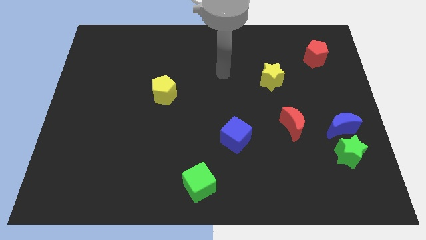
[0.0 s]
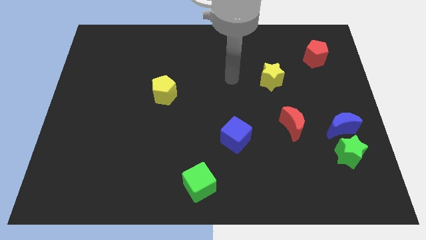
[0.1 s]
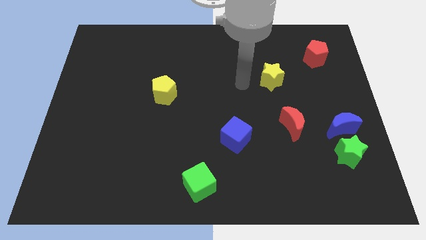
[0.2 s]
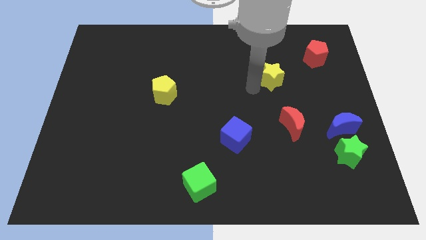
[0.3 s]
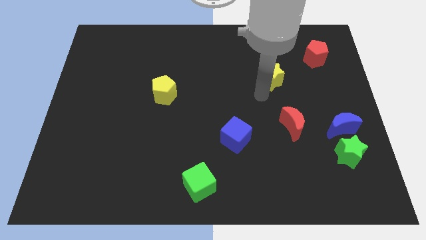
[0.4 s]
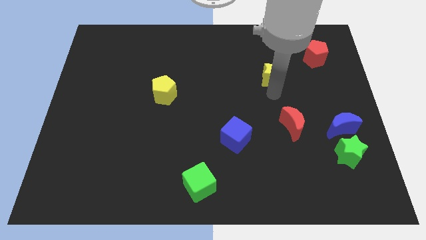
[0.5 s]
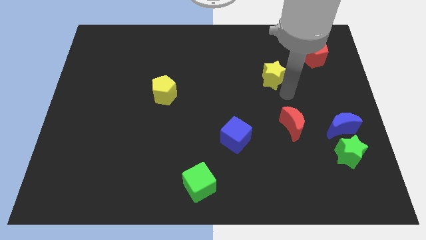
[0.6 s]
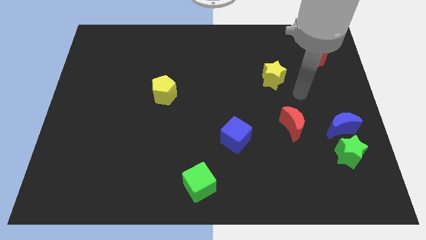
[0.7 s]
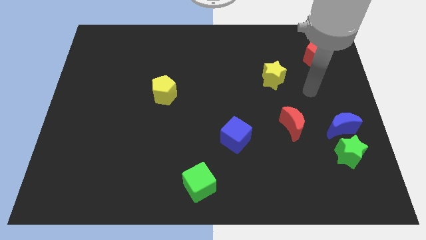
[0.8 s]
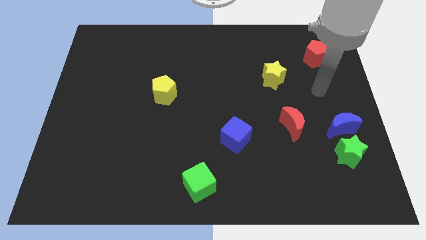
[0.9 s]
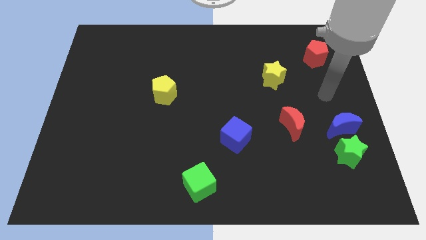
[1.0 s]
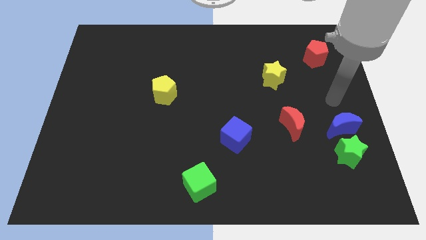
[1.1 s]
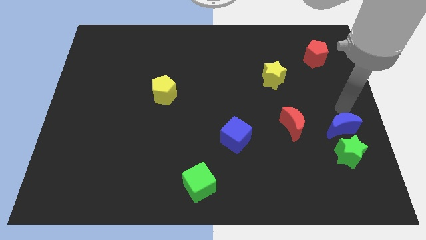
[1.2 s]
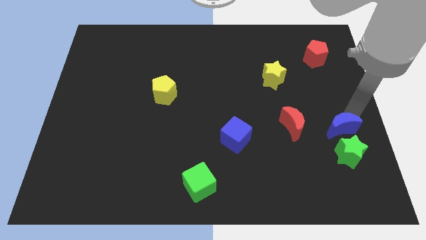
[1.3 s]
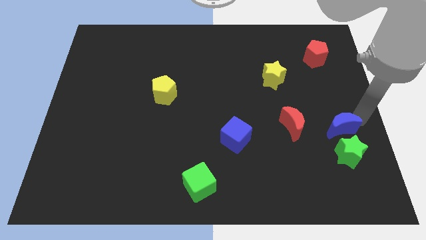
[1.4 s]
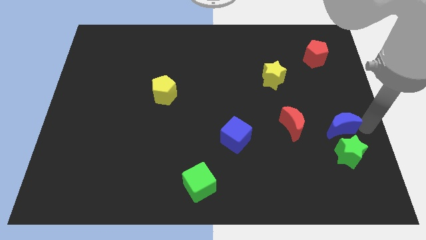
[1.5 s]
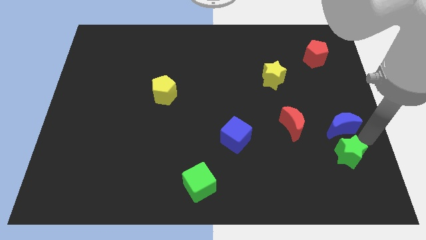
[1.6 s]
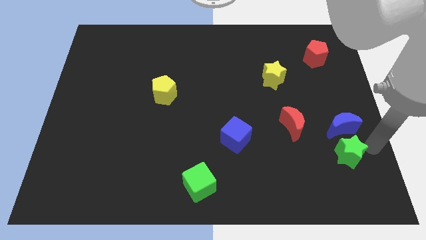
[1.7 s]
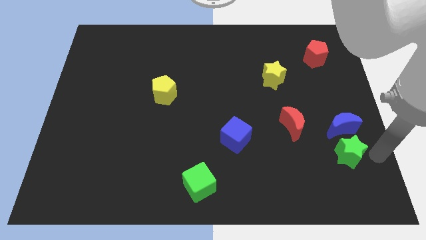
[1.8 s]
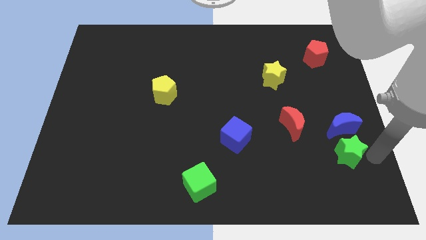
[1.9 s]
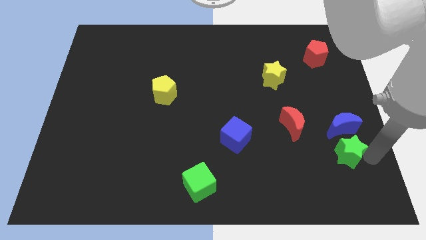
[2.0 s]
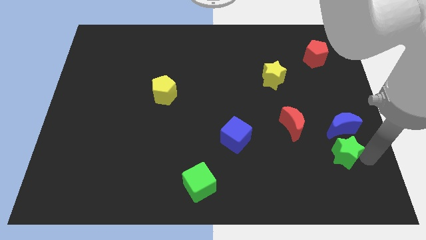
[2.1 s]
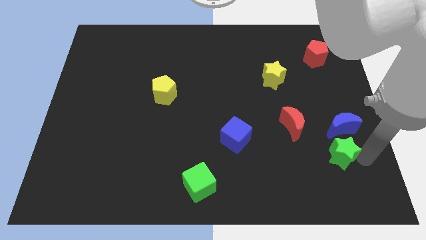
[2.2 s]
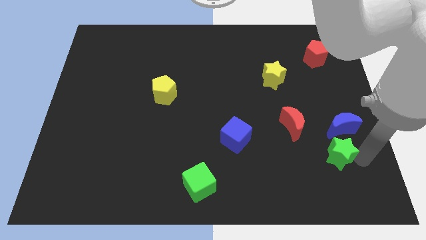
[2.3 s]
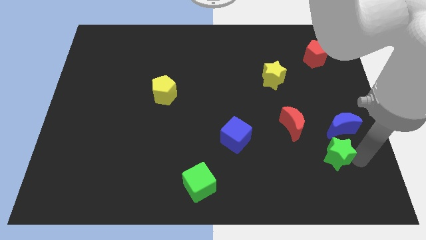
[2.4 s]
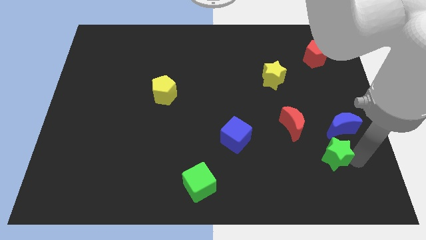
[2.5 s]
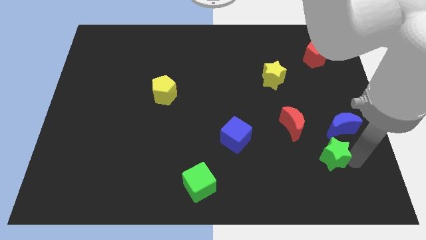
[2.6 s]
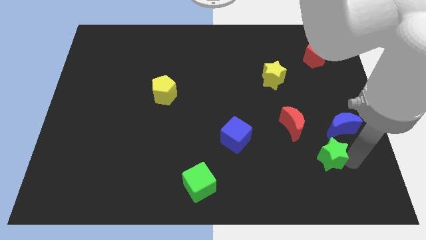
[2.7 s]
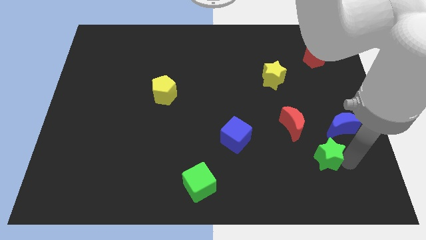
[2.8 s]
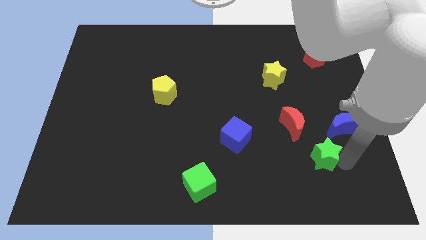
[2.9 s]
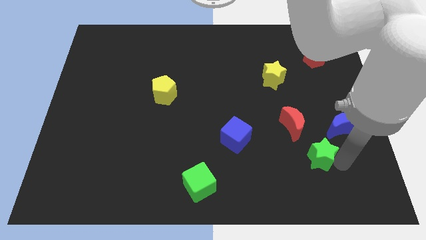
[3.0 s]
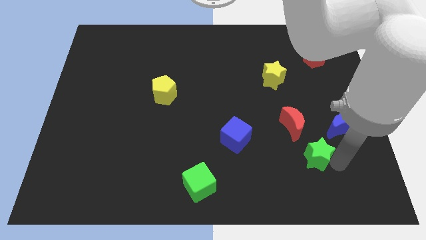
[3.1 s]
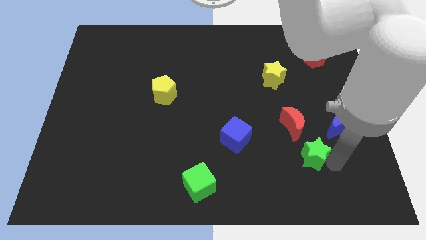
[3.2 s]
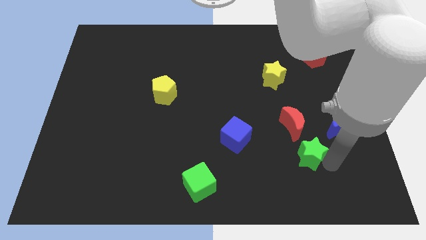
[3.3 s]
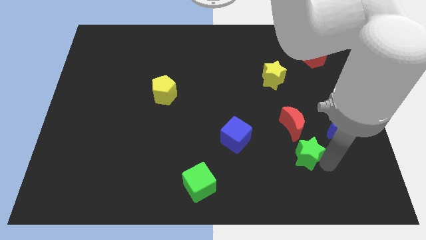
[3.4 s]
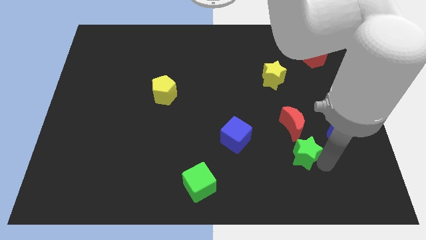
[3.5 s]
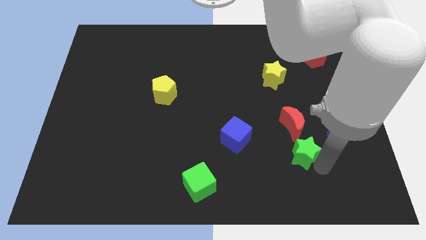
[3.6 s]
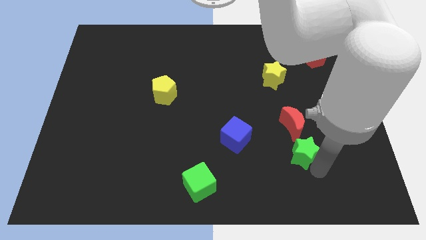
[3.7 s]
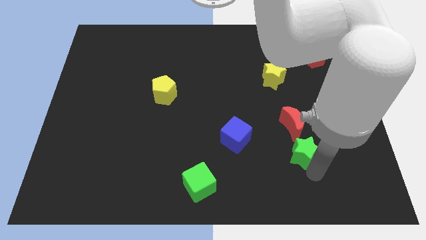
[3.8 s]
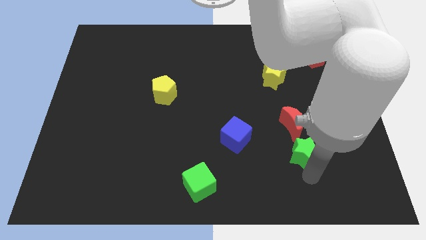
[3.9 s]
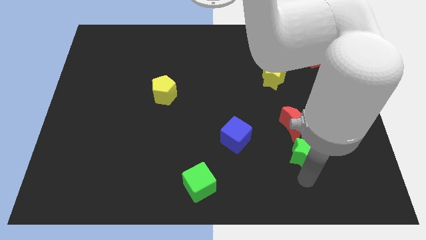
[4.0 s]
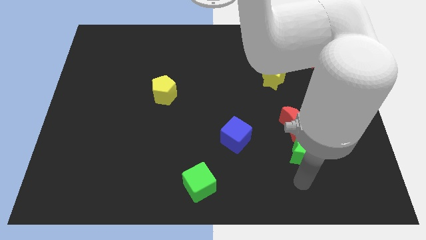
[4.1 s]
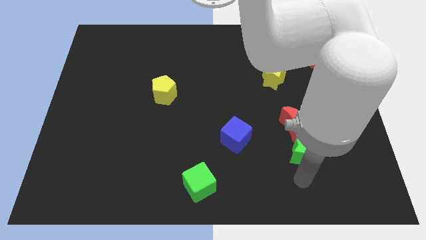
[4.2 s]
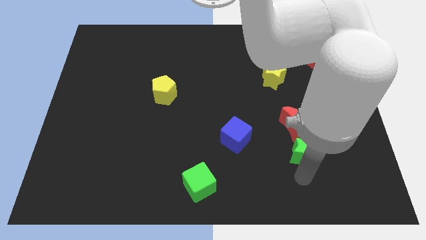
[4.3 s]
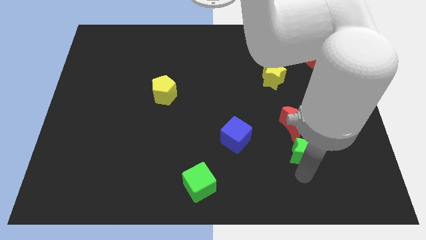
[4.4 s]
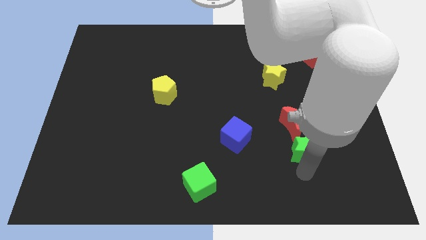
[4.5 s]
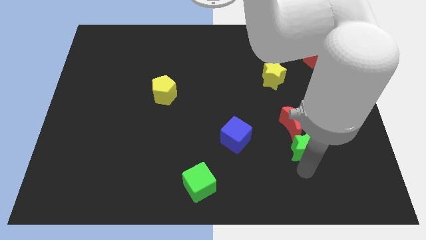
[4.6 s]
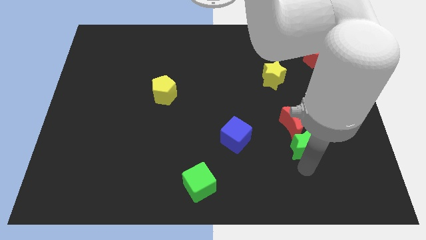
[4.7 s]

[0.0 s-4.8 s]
slide the green star to the red moon
